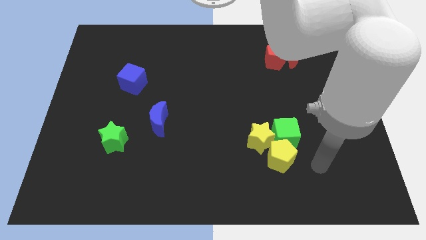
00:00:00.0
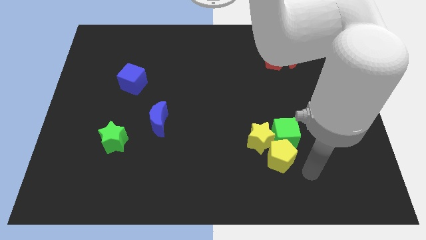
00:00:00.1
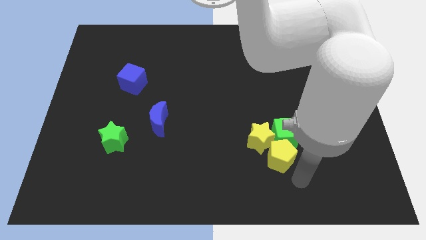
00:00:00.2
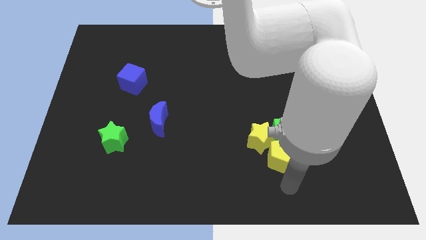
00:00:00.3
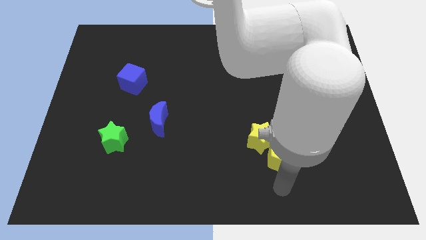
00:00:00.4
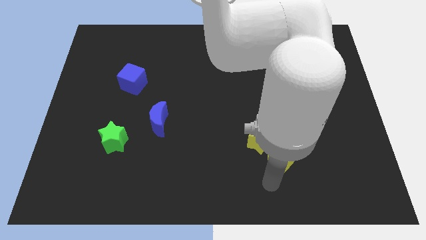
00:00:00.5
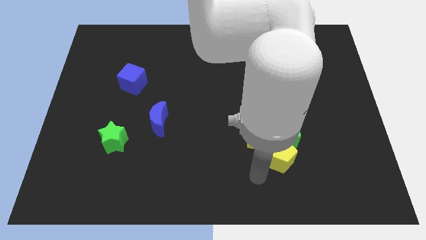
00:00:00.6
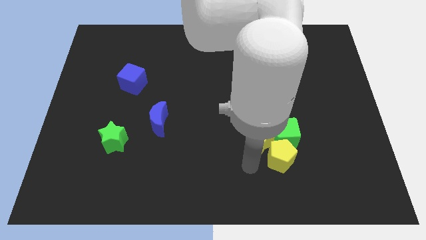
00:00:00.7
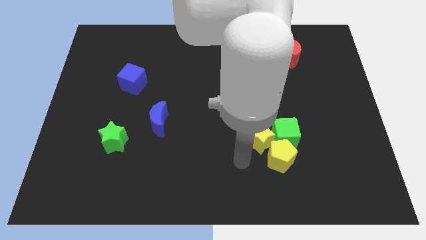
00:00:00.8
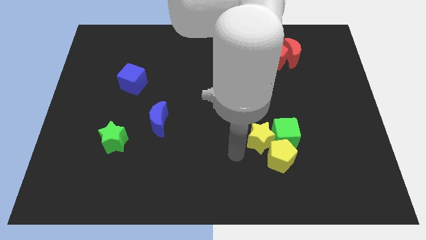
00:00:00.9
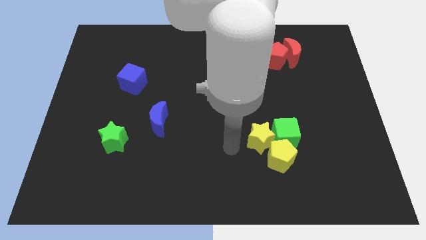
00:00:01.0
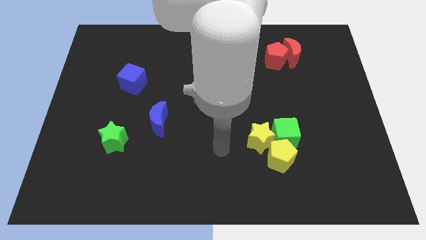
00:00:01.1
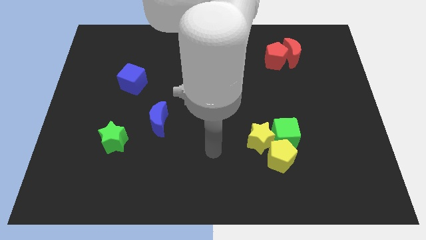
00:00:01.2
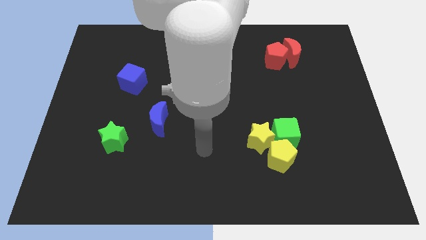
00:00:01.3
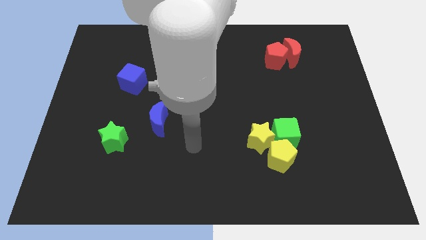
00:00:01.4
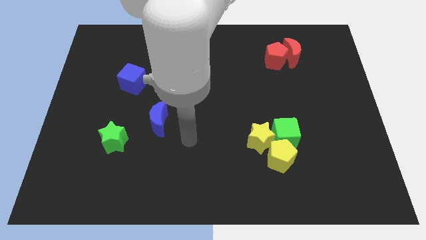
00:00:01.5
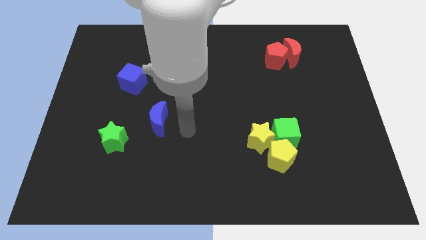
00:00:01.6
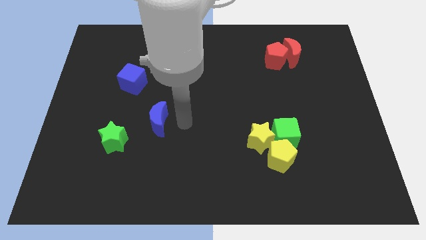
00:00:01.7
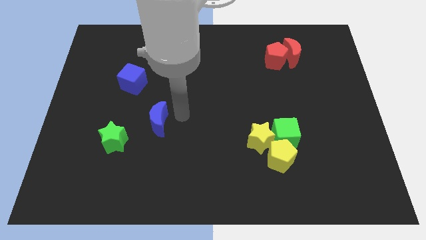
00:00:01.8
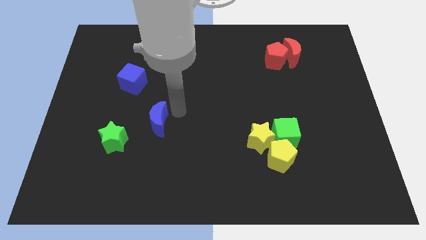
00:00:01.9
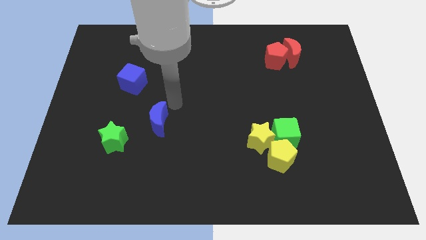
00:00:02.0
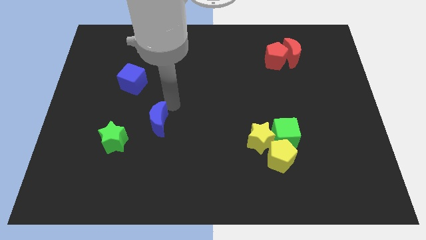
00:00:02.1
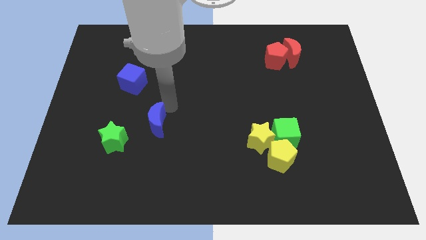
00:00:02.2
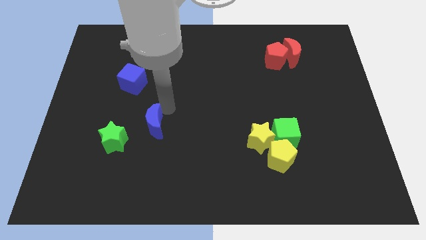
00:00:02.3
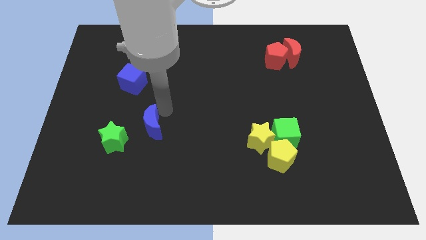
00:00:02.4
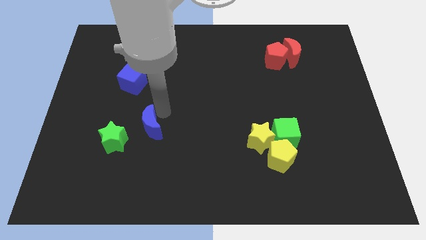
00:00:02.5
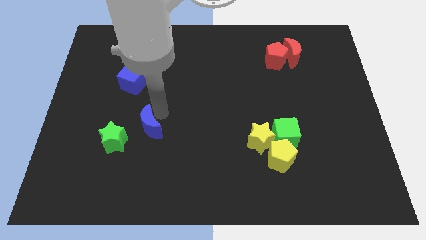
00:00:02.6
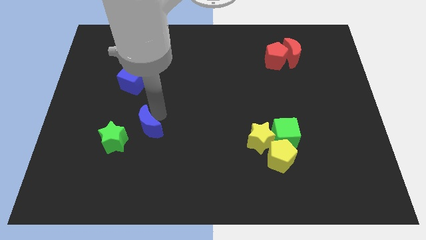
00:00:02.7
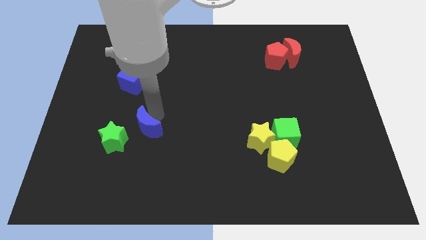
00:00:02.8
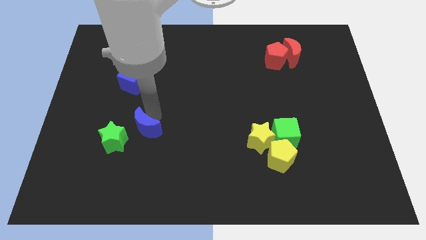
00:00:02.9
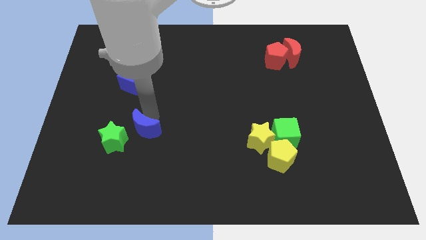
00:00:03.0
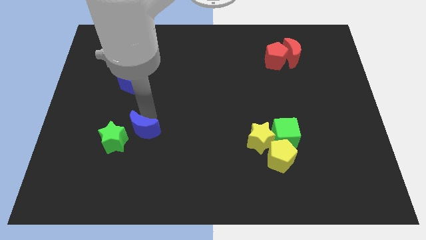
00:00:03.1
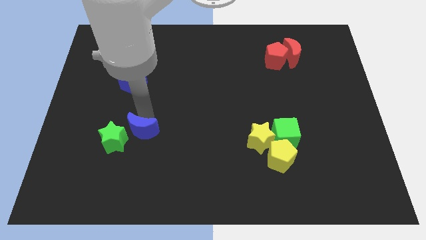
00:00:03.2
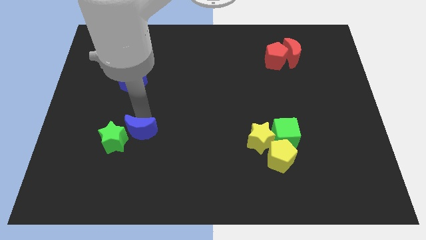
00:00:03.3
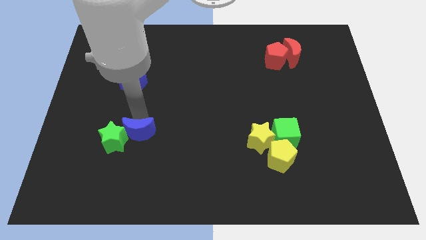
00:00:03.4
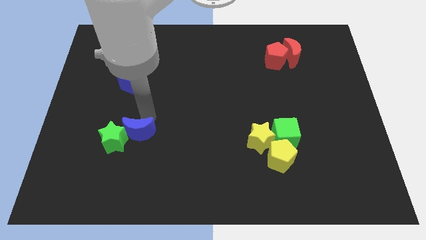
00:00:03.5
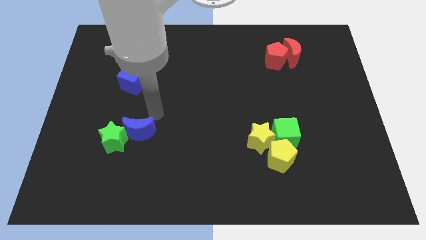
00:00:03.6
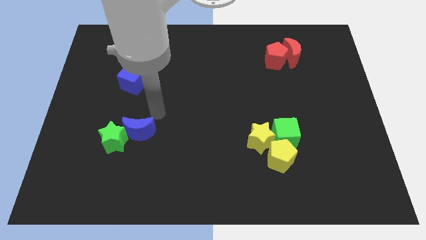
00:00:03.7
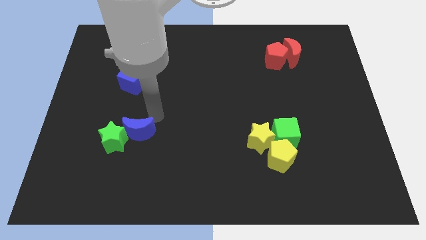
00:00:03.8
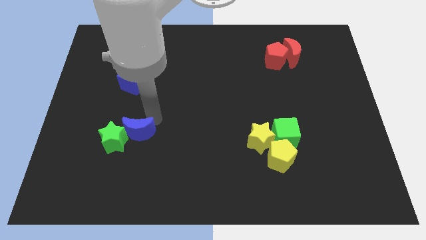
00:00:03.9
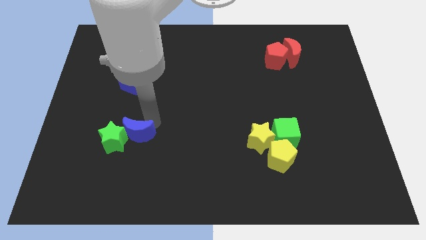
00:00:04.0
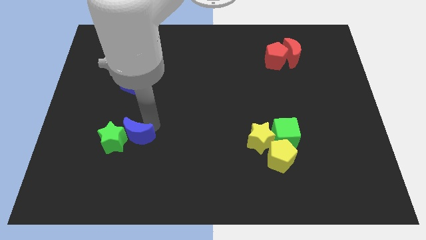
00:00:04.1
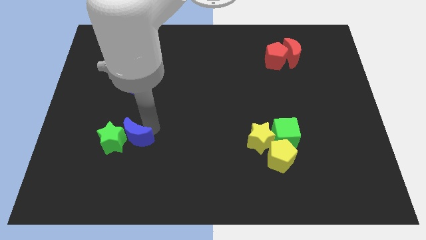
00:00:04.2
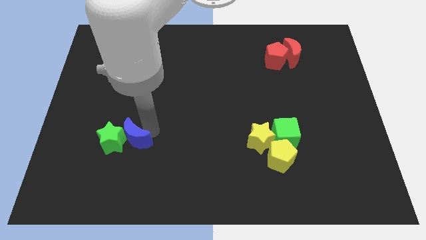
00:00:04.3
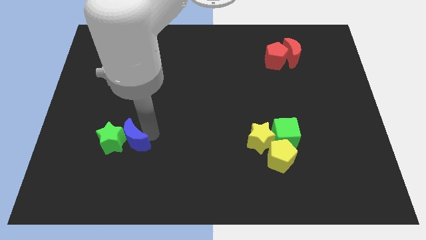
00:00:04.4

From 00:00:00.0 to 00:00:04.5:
slide the blue moon a bit diagonally down and left

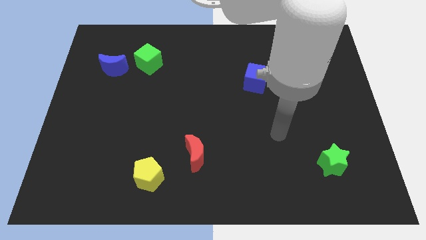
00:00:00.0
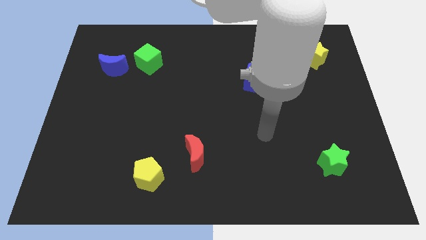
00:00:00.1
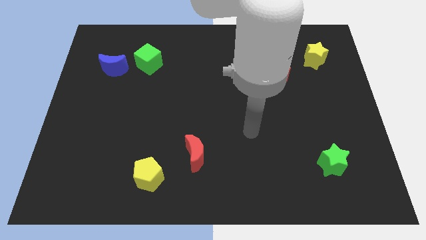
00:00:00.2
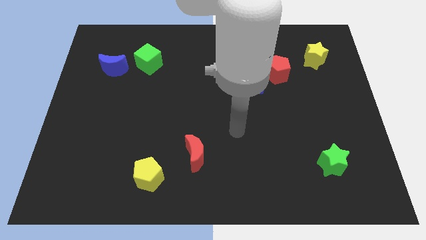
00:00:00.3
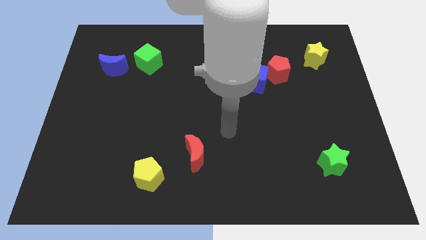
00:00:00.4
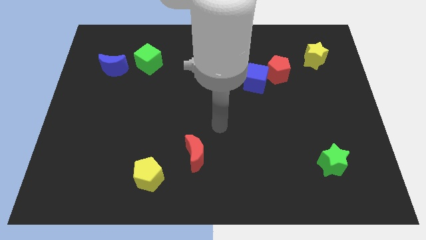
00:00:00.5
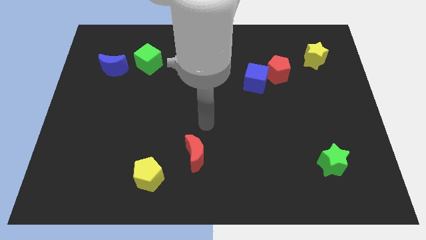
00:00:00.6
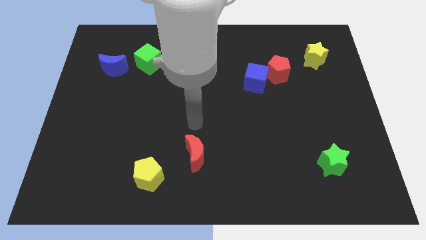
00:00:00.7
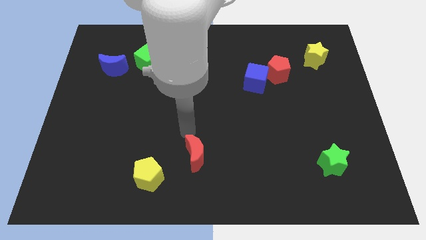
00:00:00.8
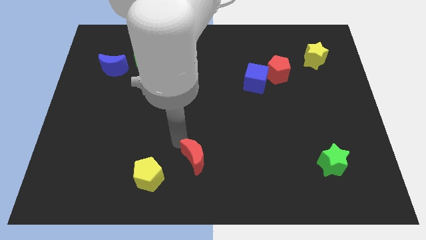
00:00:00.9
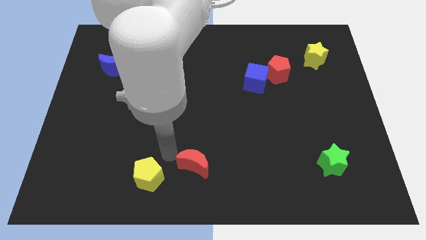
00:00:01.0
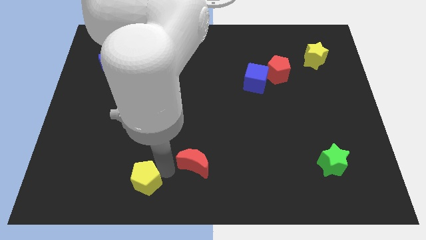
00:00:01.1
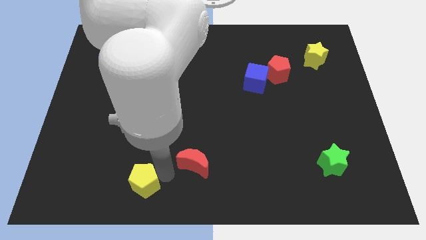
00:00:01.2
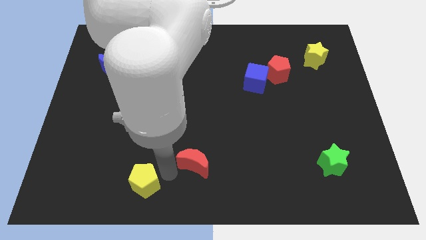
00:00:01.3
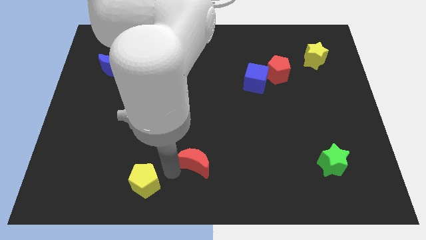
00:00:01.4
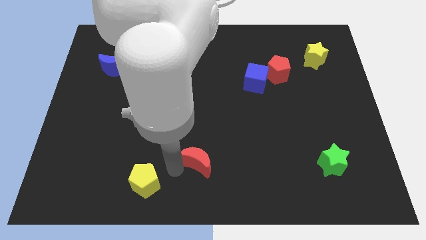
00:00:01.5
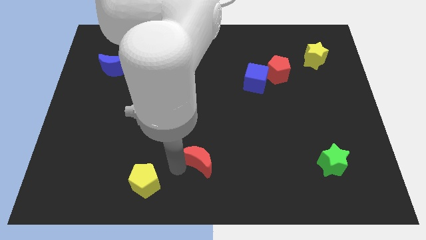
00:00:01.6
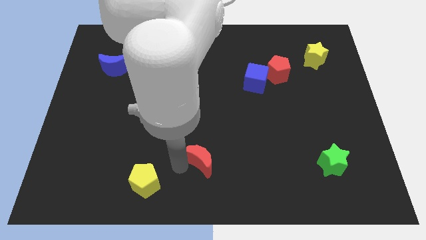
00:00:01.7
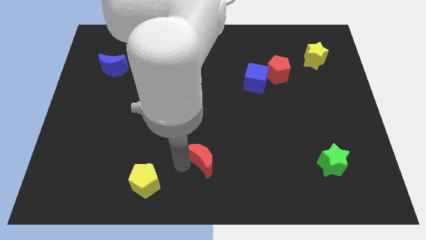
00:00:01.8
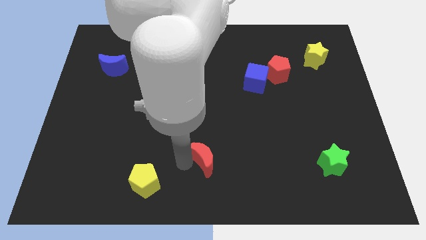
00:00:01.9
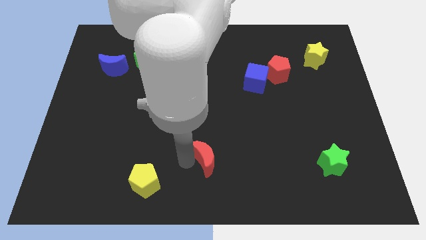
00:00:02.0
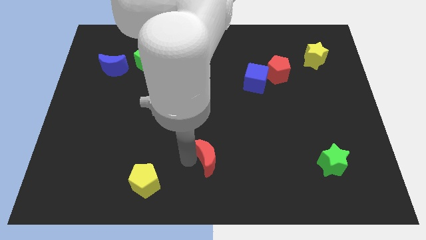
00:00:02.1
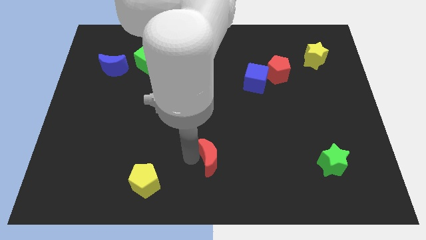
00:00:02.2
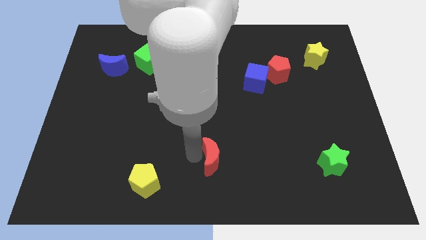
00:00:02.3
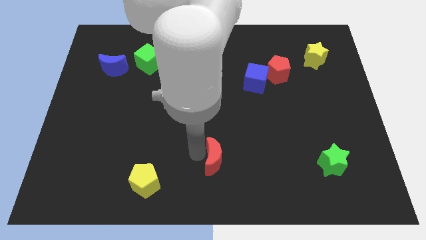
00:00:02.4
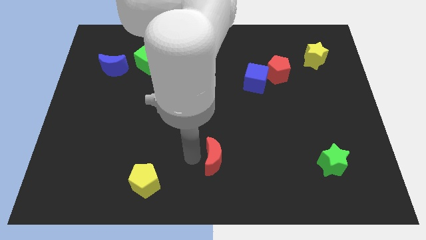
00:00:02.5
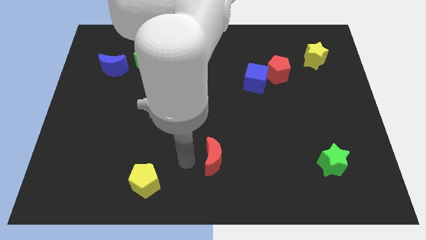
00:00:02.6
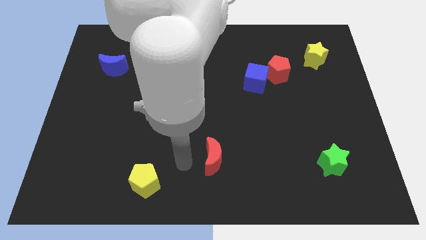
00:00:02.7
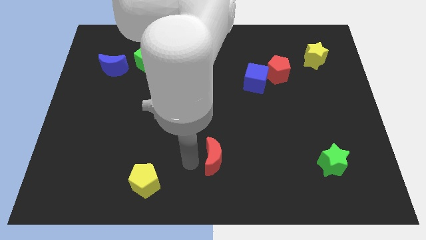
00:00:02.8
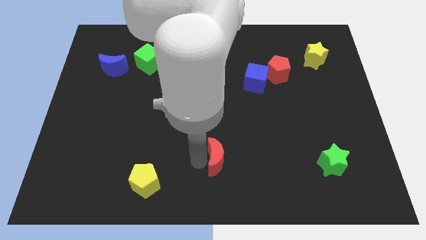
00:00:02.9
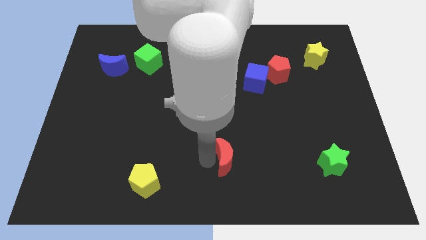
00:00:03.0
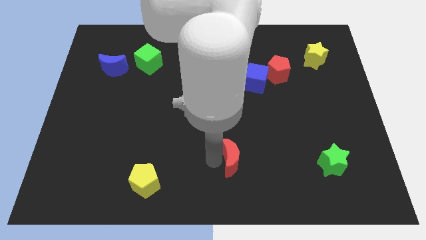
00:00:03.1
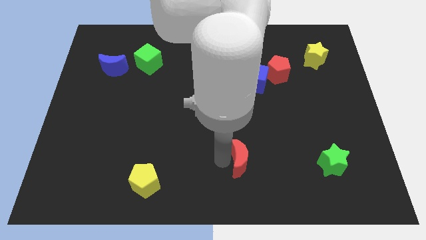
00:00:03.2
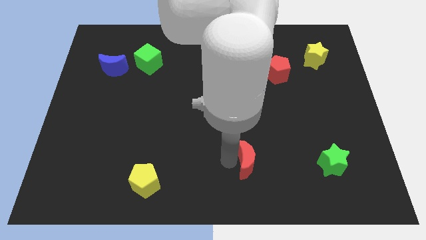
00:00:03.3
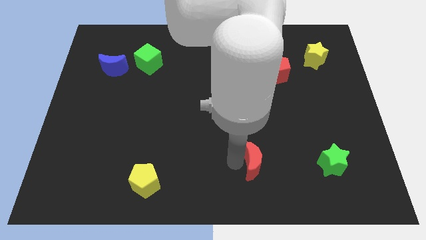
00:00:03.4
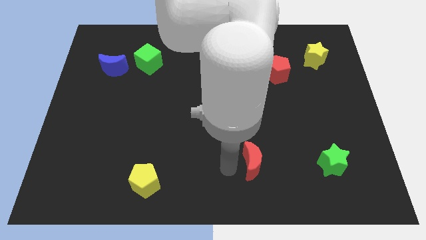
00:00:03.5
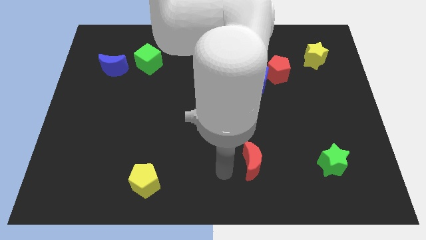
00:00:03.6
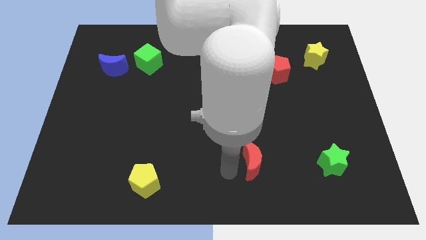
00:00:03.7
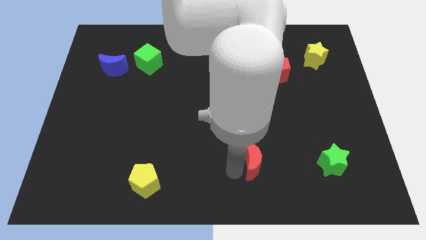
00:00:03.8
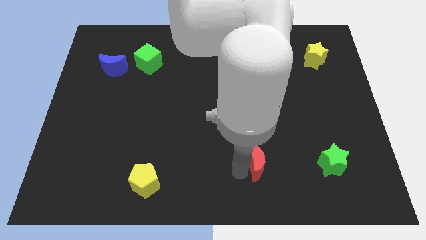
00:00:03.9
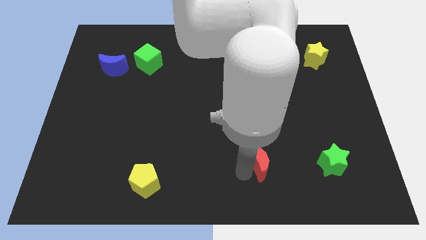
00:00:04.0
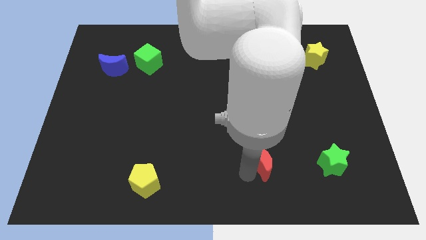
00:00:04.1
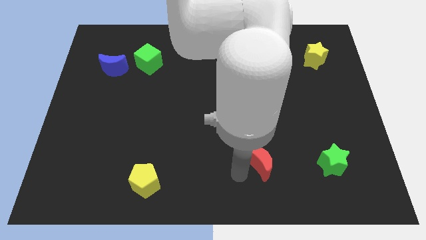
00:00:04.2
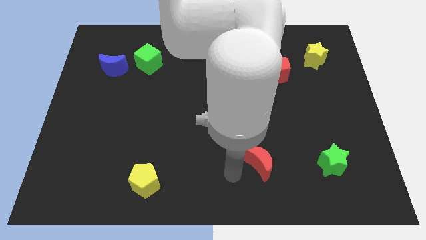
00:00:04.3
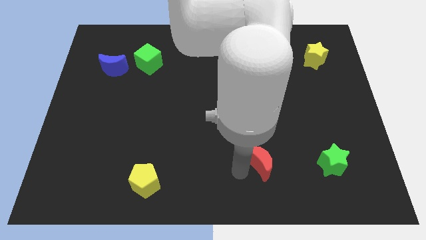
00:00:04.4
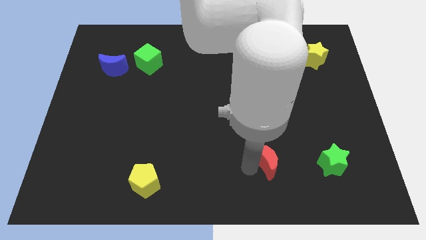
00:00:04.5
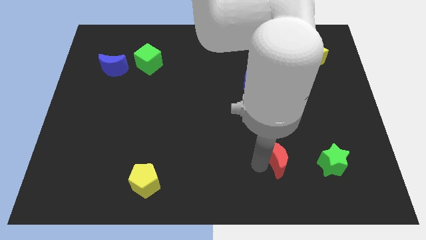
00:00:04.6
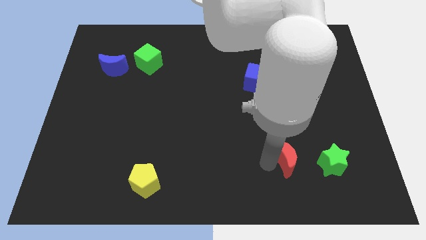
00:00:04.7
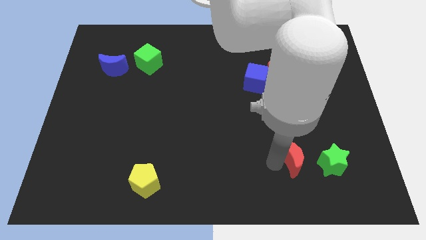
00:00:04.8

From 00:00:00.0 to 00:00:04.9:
slide the red moon right
